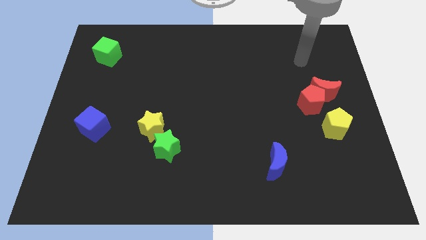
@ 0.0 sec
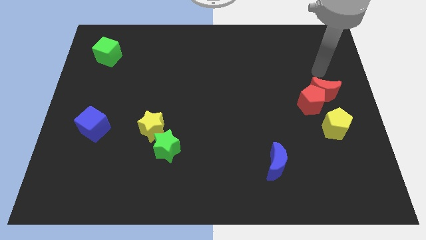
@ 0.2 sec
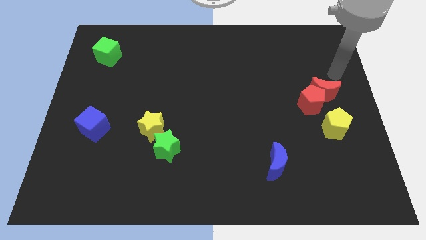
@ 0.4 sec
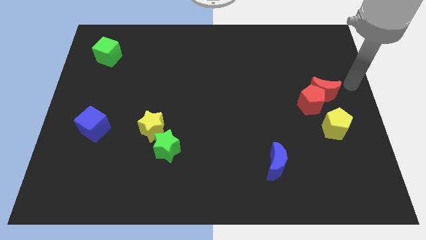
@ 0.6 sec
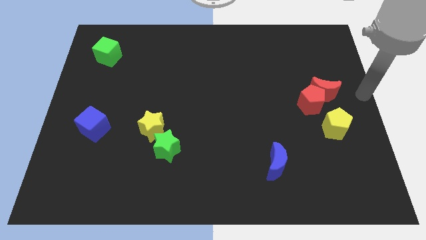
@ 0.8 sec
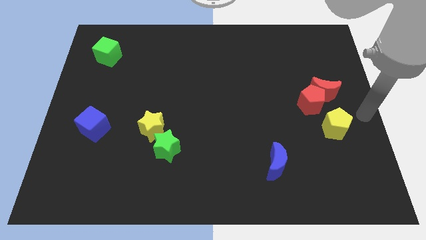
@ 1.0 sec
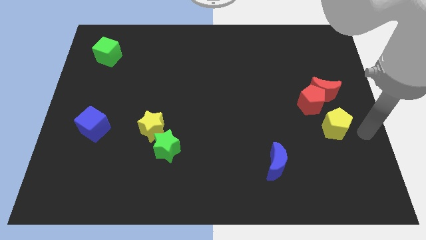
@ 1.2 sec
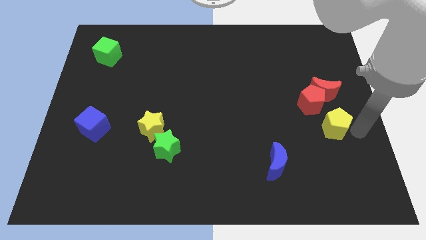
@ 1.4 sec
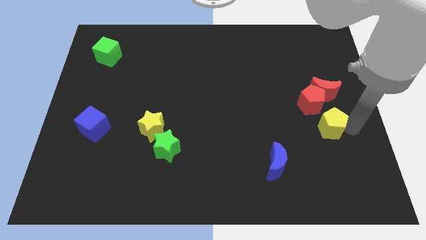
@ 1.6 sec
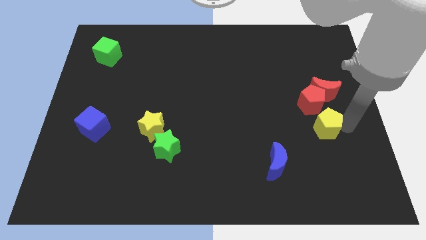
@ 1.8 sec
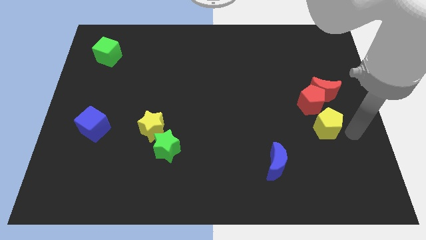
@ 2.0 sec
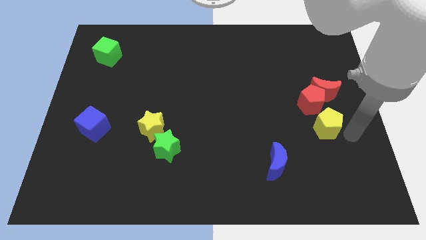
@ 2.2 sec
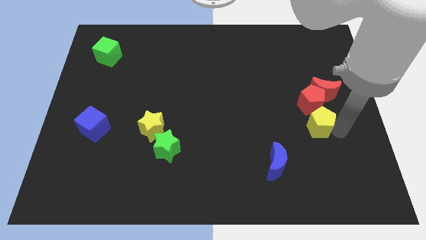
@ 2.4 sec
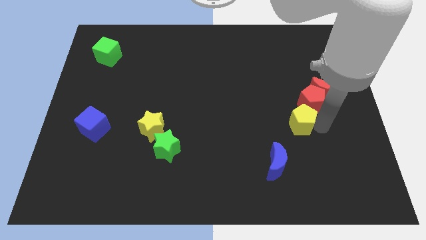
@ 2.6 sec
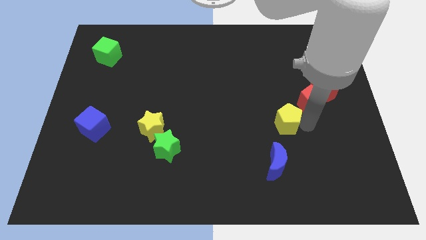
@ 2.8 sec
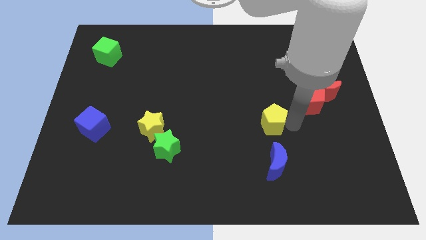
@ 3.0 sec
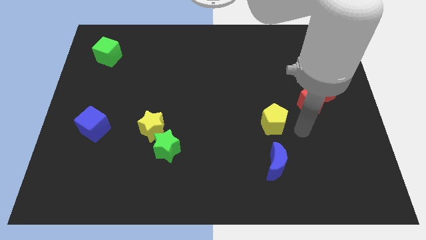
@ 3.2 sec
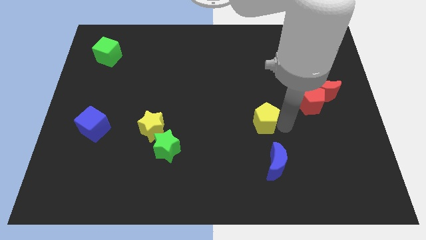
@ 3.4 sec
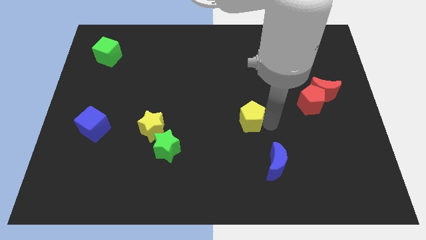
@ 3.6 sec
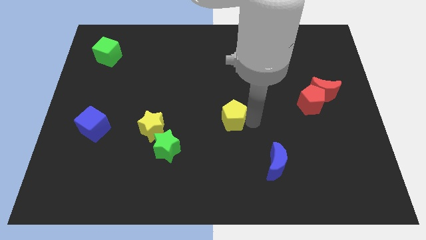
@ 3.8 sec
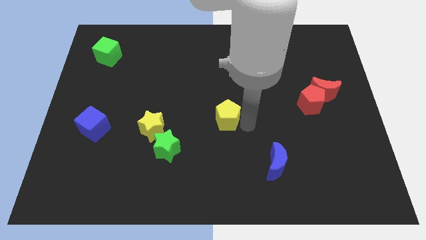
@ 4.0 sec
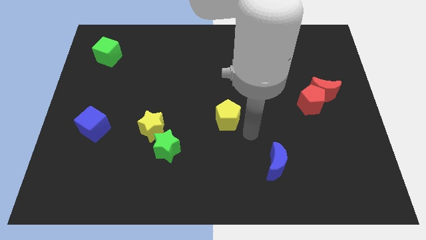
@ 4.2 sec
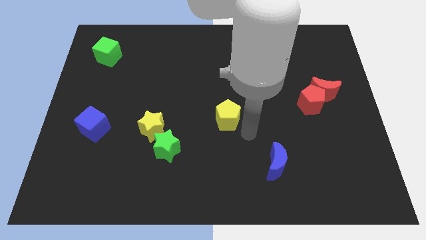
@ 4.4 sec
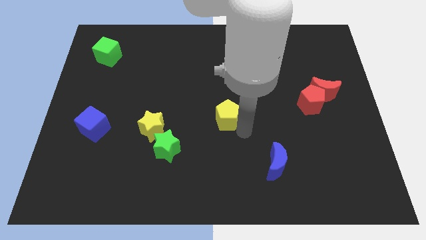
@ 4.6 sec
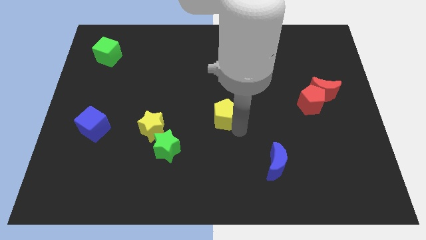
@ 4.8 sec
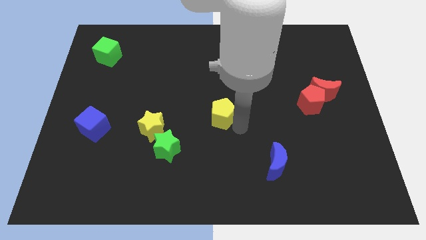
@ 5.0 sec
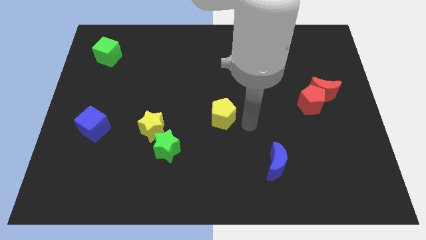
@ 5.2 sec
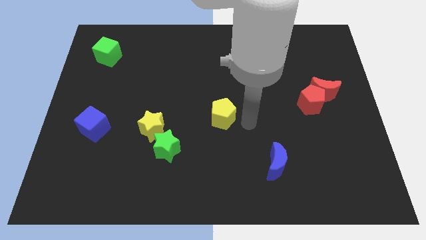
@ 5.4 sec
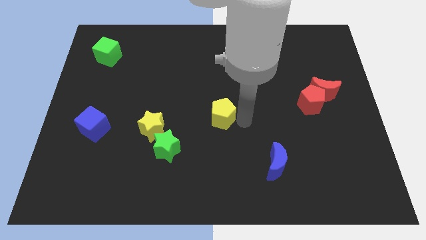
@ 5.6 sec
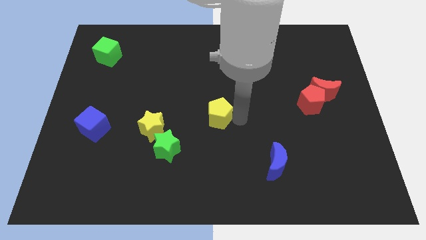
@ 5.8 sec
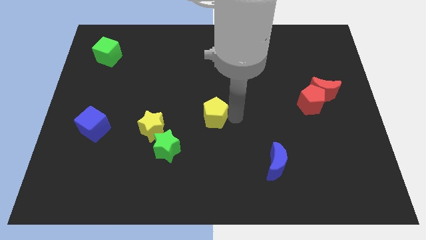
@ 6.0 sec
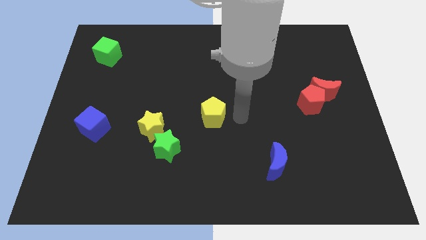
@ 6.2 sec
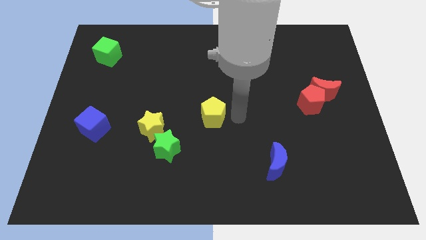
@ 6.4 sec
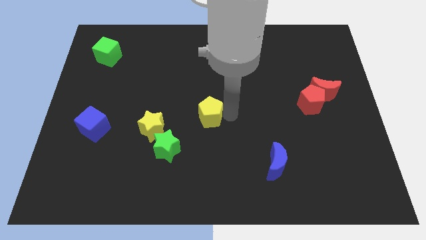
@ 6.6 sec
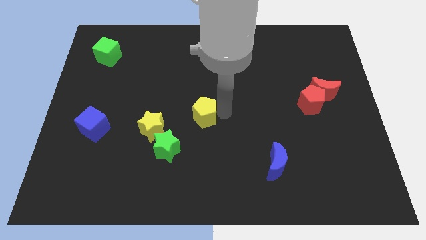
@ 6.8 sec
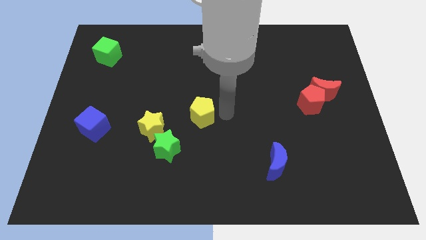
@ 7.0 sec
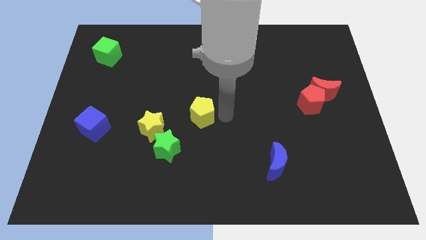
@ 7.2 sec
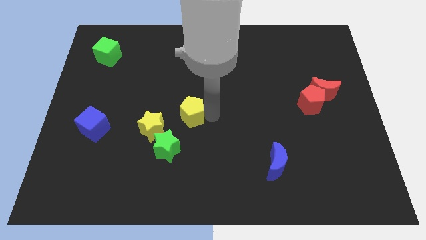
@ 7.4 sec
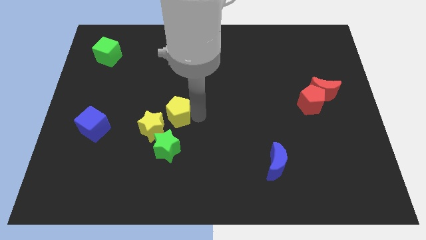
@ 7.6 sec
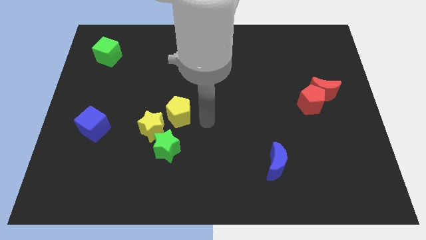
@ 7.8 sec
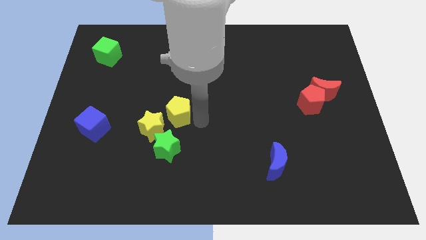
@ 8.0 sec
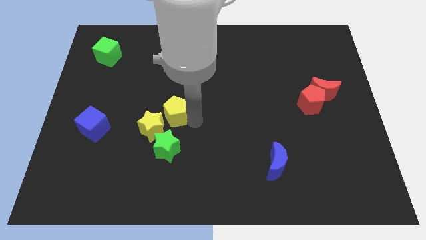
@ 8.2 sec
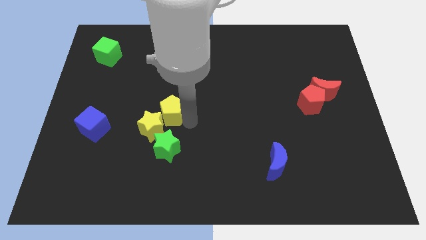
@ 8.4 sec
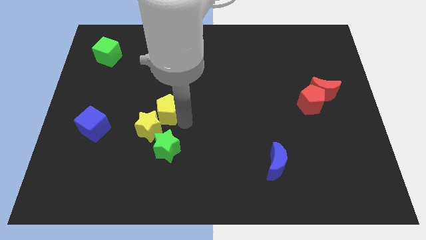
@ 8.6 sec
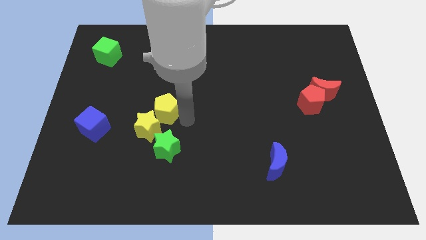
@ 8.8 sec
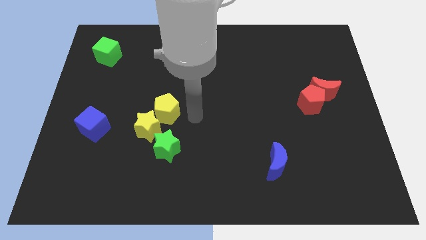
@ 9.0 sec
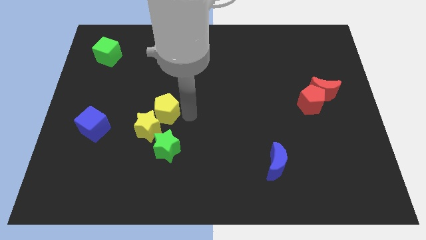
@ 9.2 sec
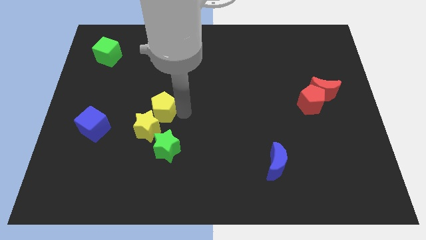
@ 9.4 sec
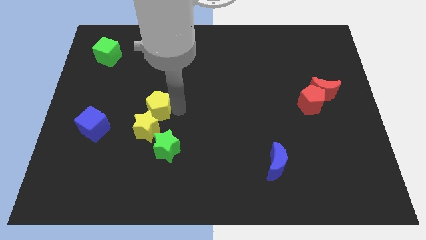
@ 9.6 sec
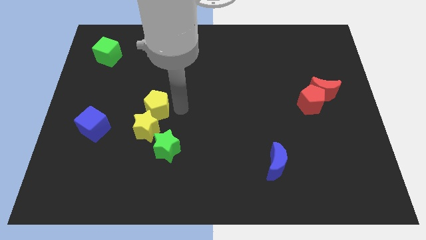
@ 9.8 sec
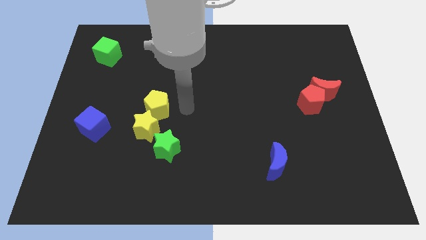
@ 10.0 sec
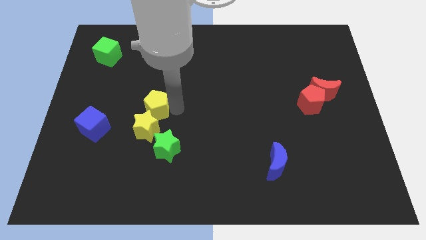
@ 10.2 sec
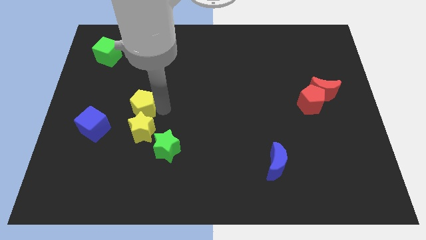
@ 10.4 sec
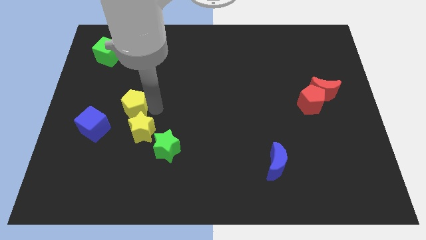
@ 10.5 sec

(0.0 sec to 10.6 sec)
move the yellow pentagon to the top right of the blue cube

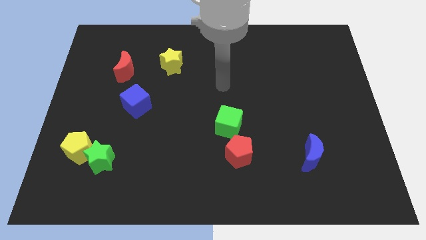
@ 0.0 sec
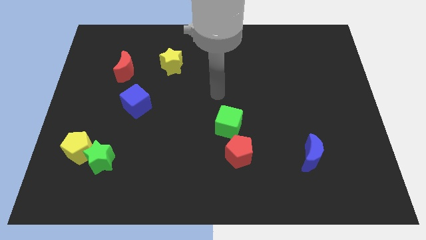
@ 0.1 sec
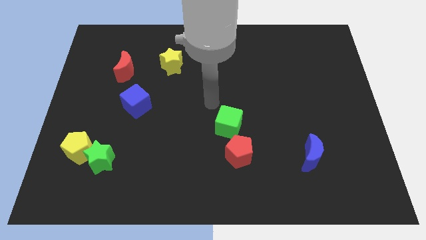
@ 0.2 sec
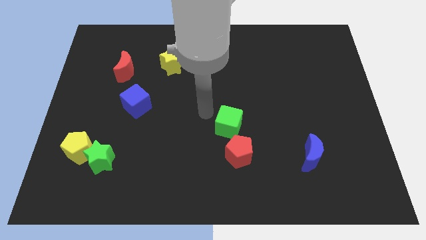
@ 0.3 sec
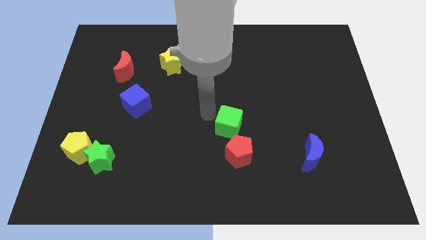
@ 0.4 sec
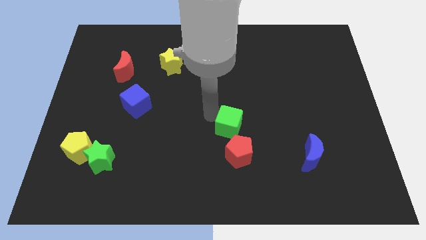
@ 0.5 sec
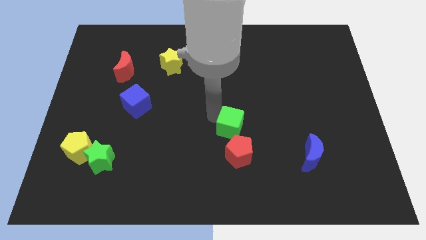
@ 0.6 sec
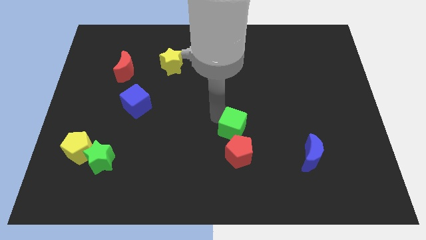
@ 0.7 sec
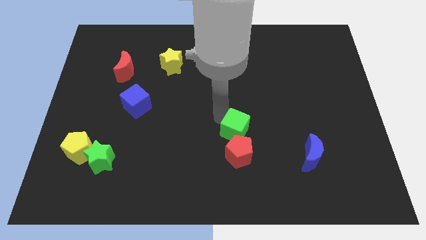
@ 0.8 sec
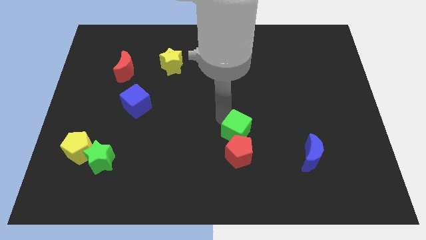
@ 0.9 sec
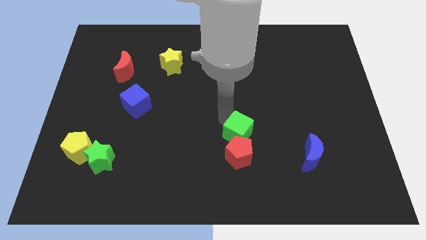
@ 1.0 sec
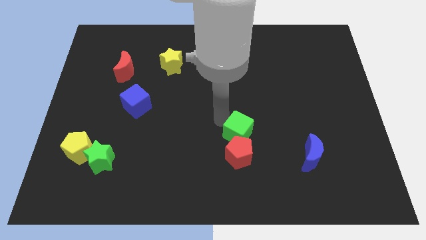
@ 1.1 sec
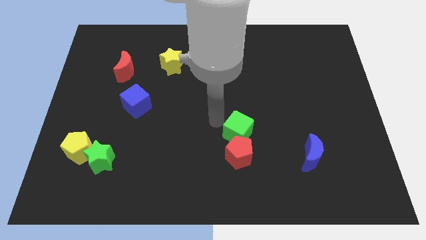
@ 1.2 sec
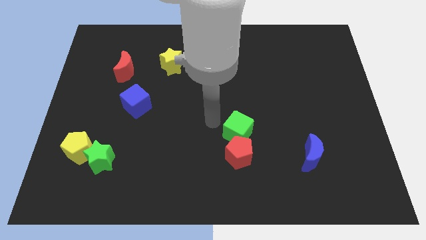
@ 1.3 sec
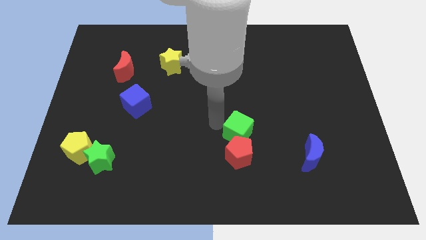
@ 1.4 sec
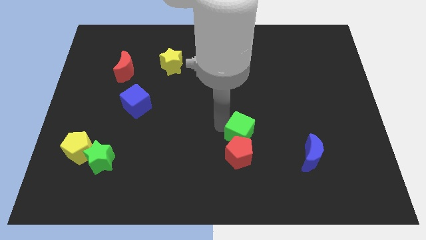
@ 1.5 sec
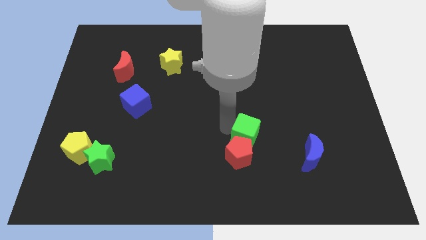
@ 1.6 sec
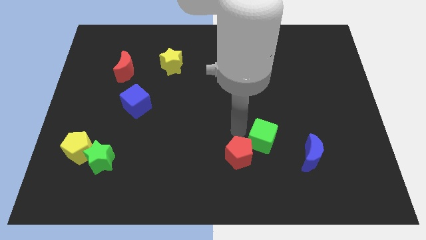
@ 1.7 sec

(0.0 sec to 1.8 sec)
put the green cube right of the red pentagon
